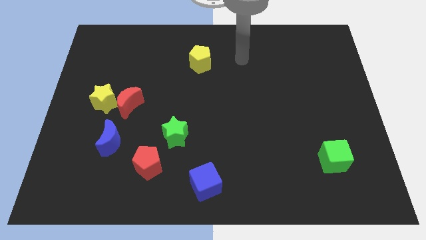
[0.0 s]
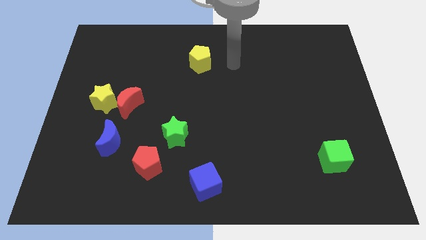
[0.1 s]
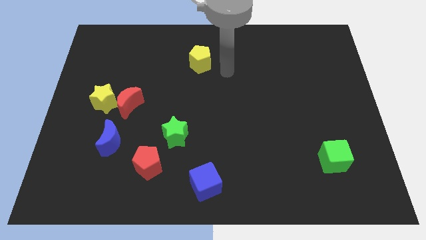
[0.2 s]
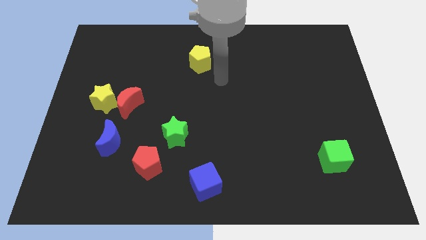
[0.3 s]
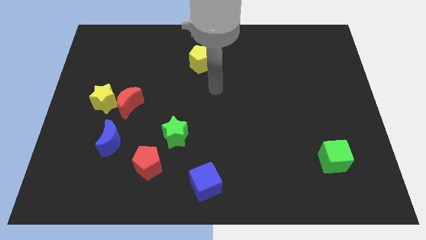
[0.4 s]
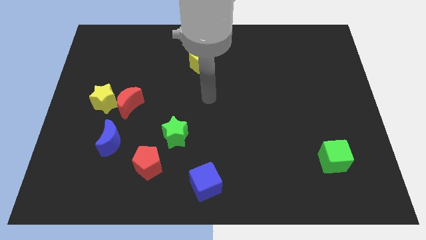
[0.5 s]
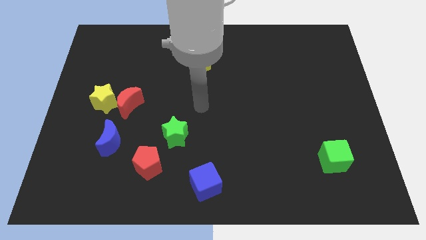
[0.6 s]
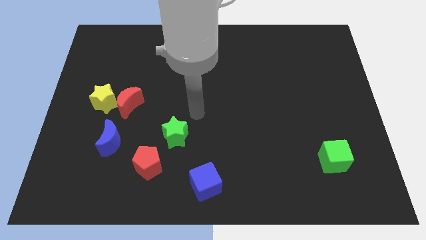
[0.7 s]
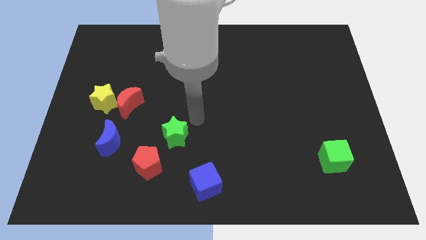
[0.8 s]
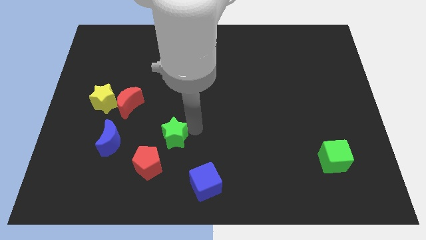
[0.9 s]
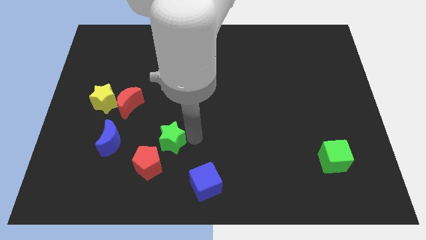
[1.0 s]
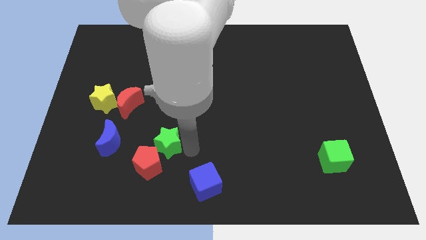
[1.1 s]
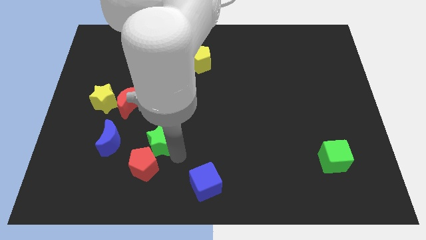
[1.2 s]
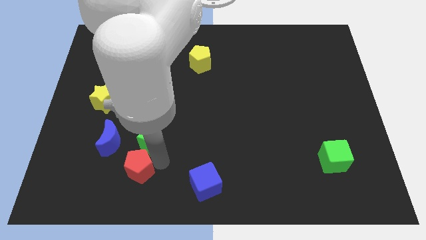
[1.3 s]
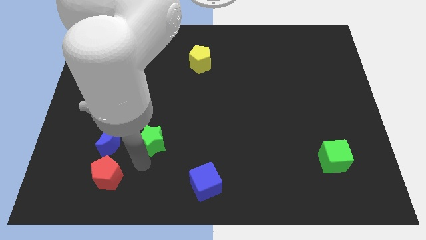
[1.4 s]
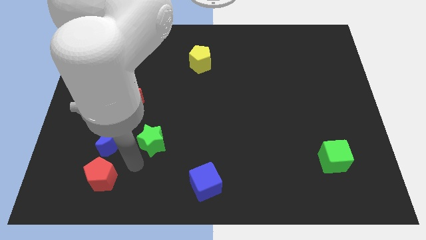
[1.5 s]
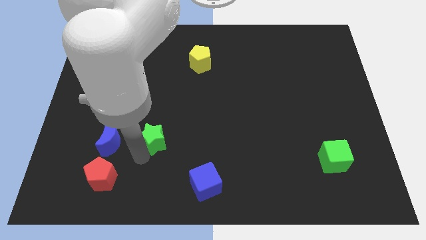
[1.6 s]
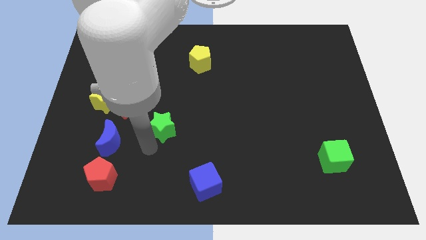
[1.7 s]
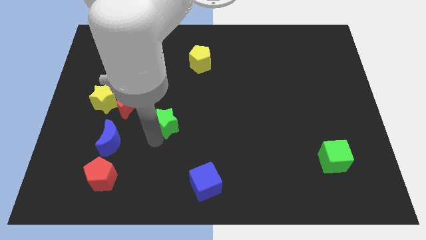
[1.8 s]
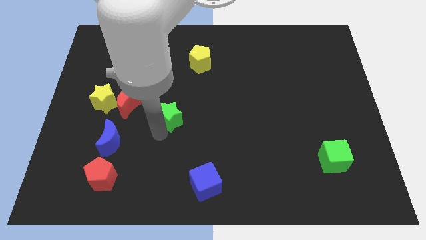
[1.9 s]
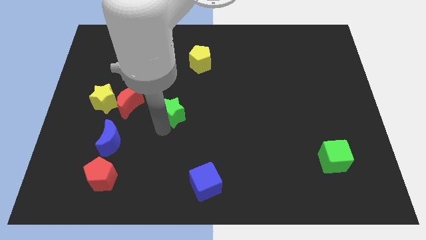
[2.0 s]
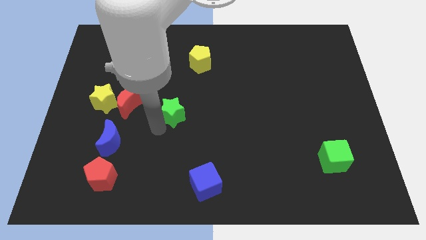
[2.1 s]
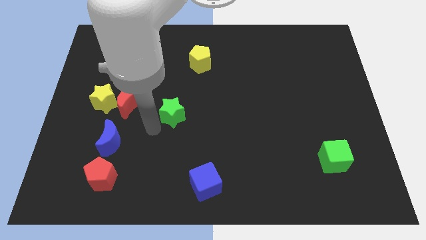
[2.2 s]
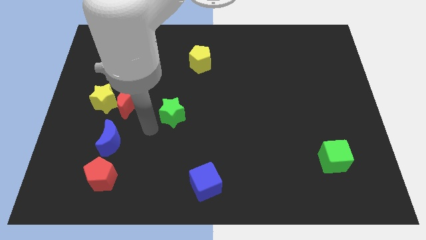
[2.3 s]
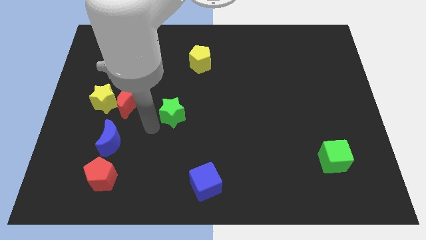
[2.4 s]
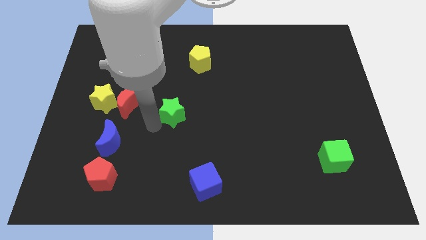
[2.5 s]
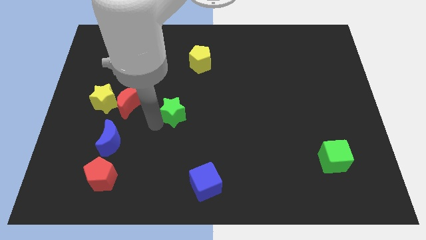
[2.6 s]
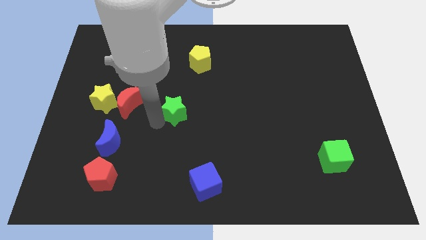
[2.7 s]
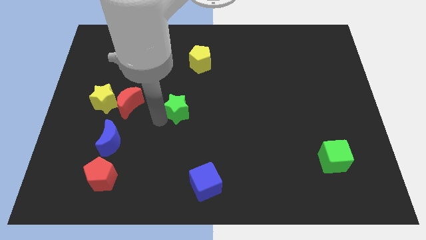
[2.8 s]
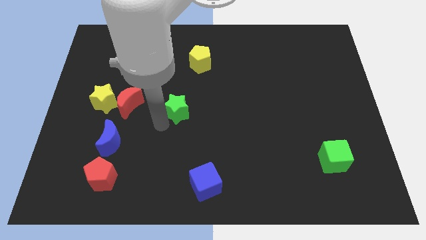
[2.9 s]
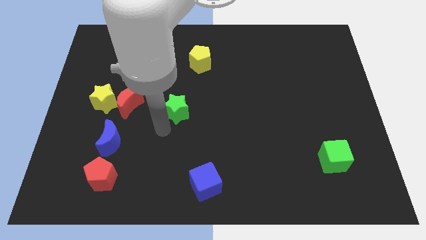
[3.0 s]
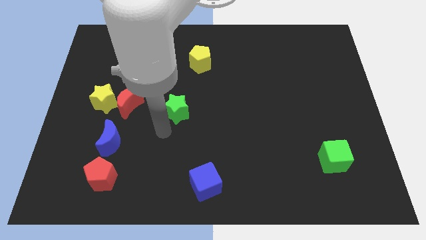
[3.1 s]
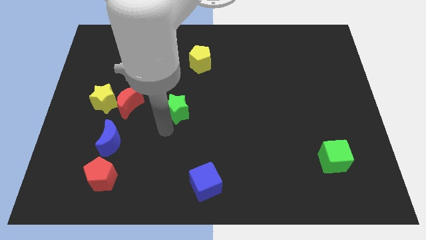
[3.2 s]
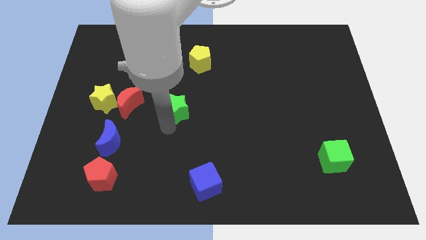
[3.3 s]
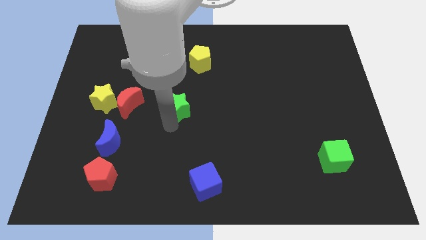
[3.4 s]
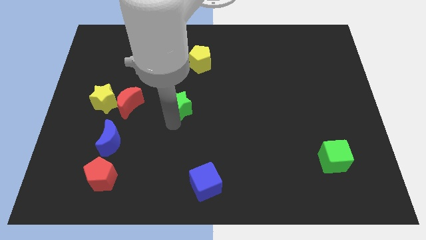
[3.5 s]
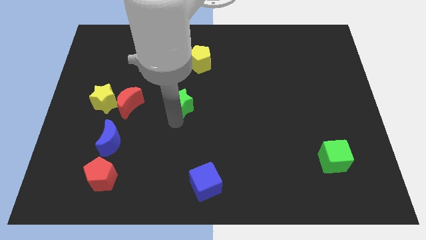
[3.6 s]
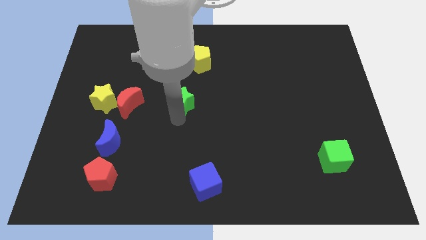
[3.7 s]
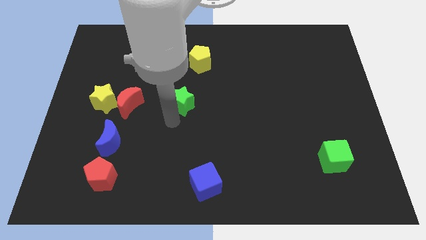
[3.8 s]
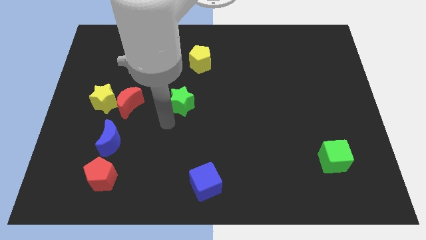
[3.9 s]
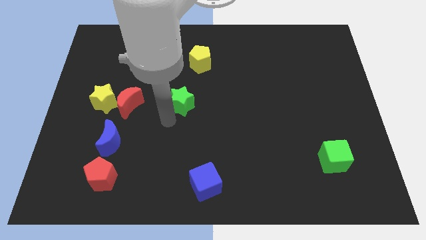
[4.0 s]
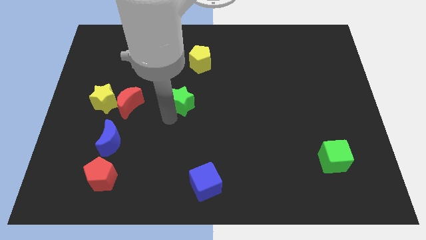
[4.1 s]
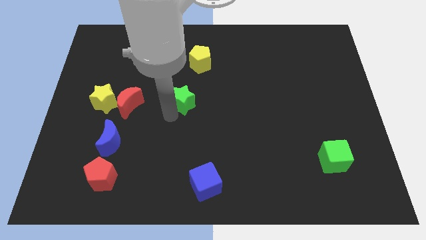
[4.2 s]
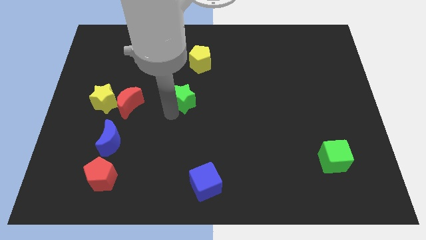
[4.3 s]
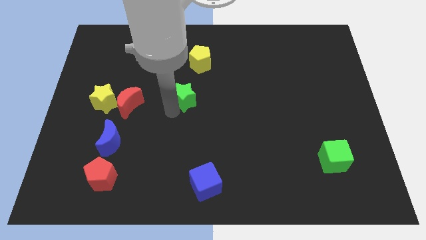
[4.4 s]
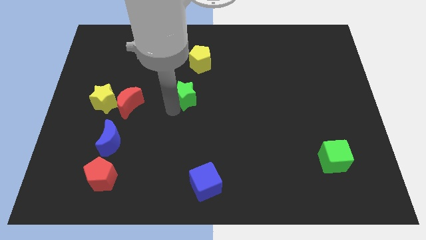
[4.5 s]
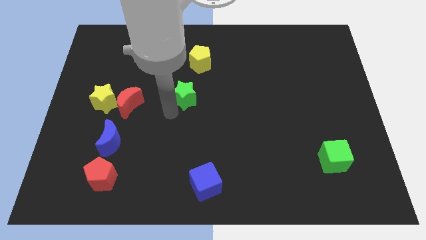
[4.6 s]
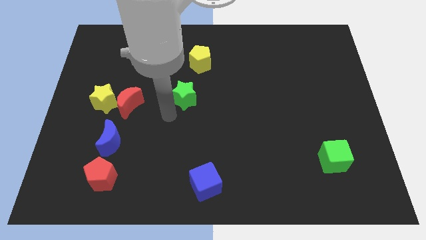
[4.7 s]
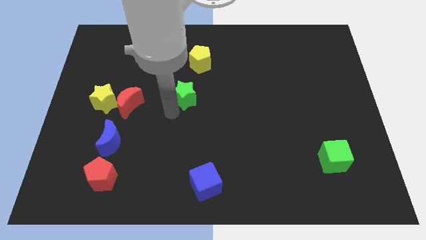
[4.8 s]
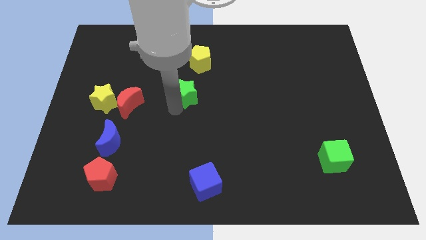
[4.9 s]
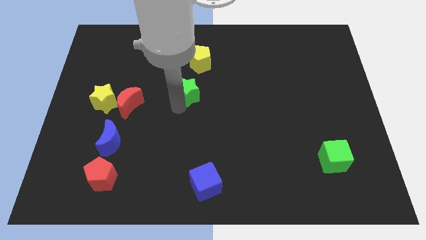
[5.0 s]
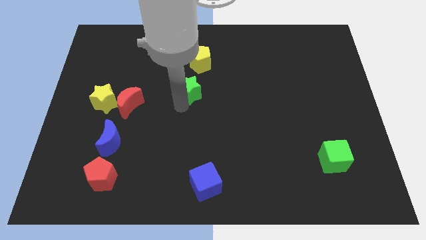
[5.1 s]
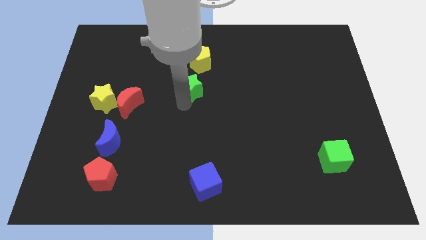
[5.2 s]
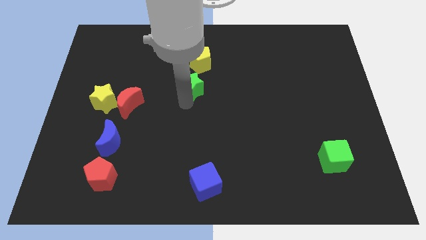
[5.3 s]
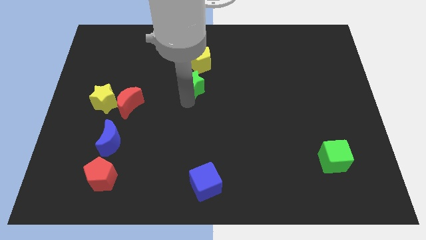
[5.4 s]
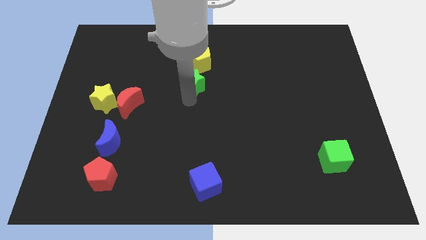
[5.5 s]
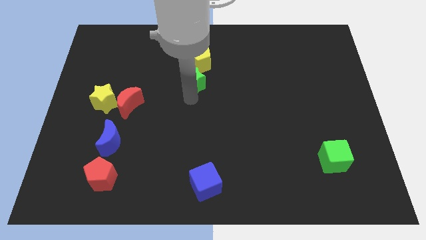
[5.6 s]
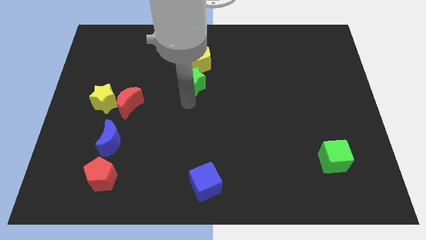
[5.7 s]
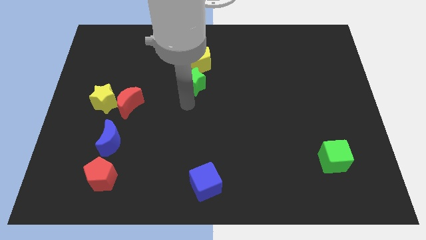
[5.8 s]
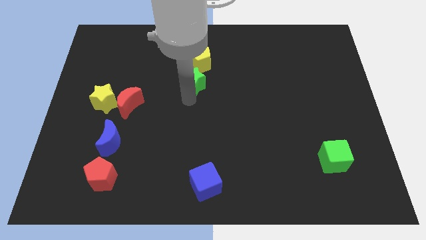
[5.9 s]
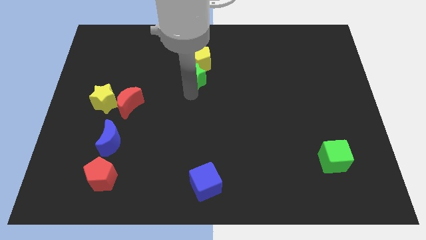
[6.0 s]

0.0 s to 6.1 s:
push the green star next to the yellow pentagon

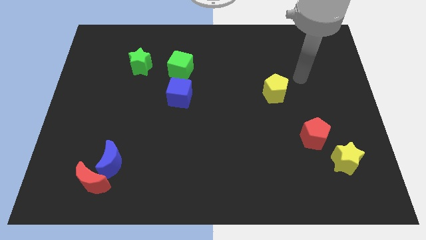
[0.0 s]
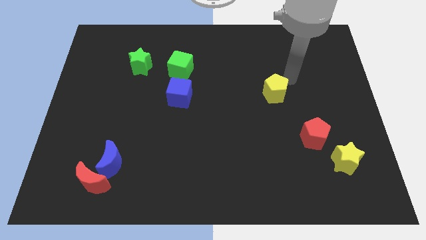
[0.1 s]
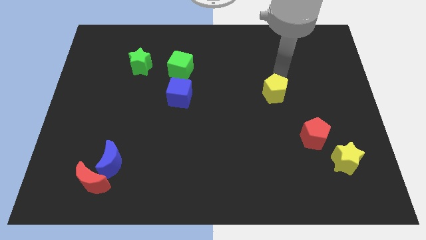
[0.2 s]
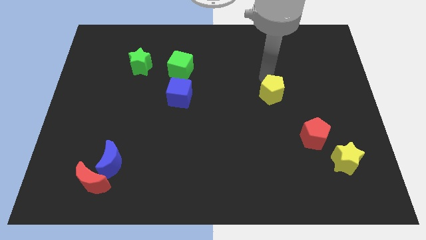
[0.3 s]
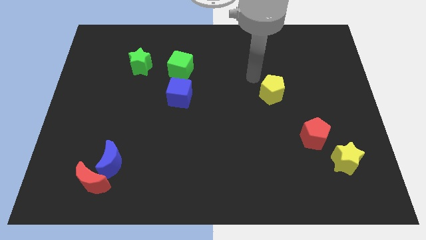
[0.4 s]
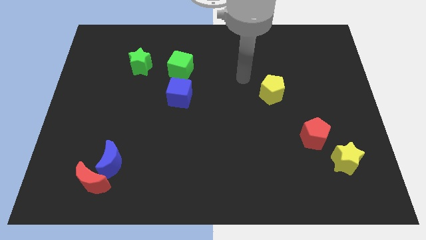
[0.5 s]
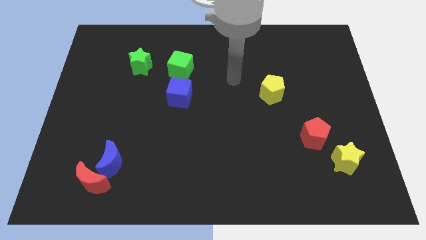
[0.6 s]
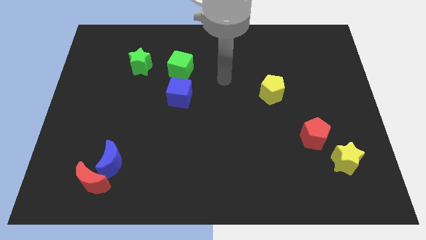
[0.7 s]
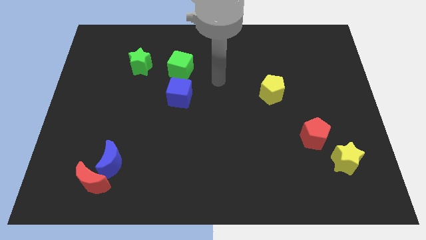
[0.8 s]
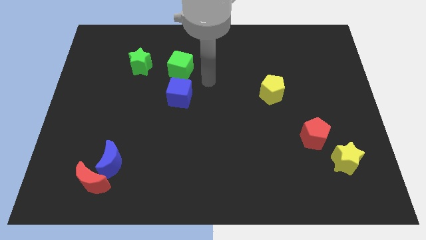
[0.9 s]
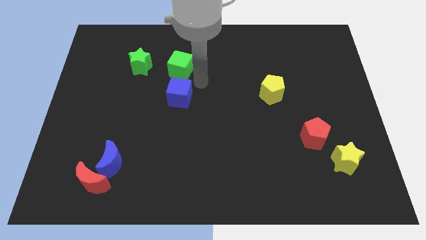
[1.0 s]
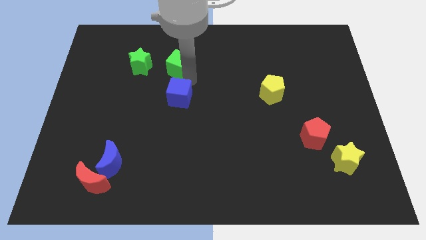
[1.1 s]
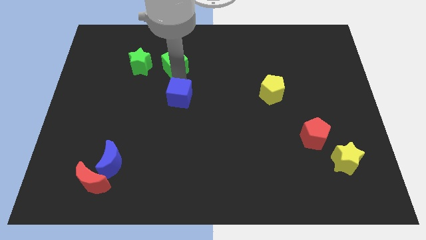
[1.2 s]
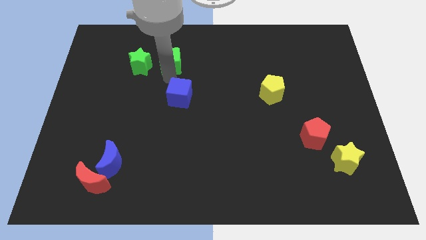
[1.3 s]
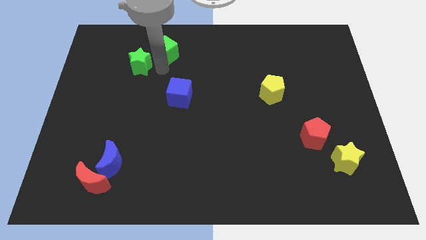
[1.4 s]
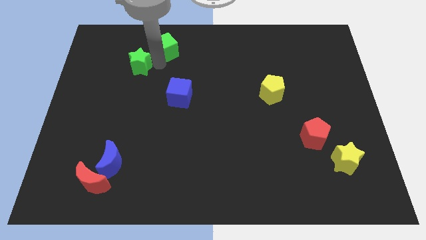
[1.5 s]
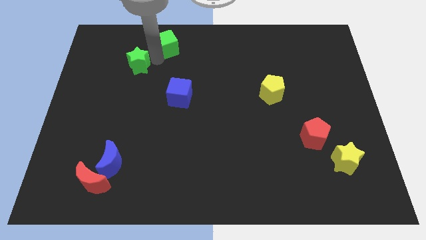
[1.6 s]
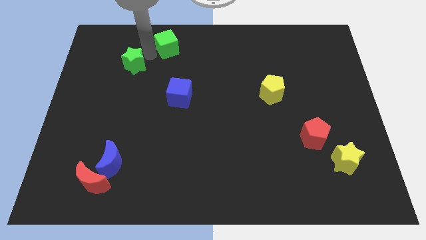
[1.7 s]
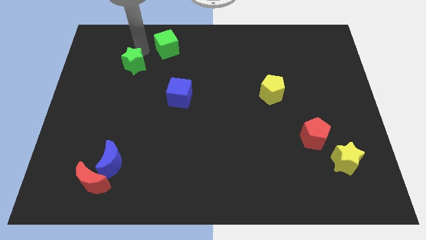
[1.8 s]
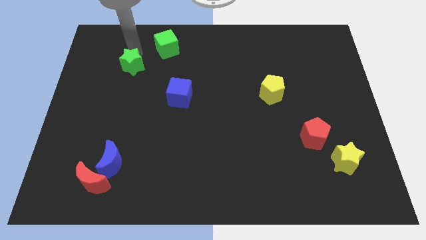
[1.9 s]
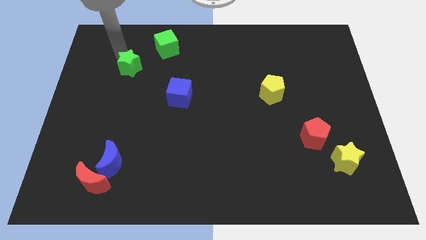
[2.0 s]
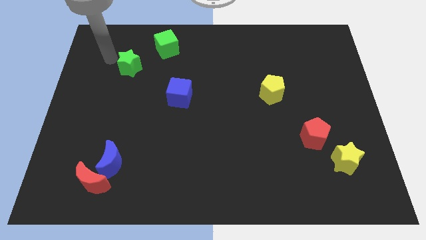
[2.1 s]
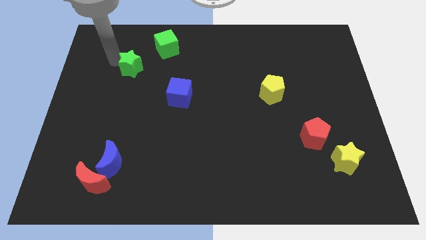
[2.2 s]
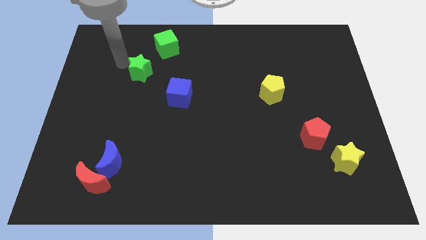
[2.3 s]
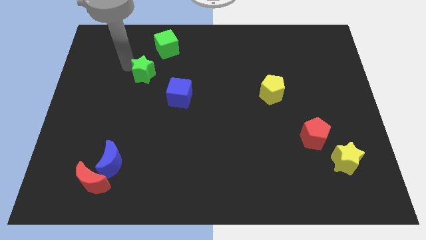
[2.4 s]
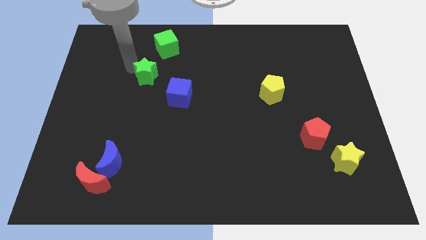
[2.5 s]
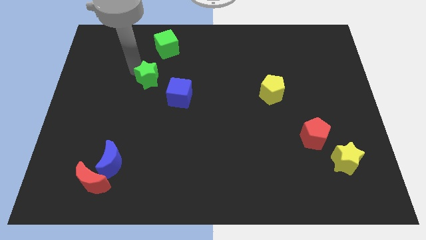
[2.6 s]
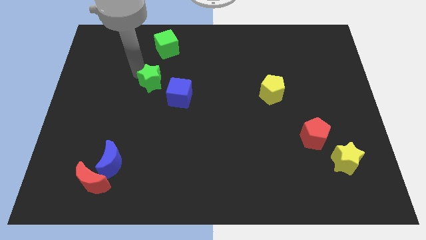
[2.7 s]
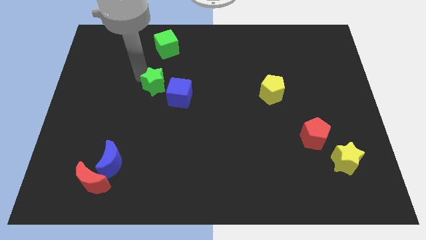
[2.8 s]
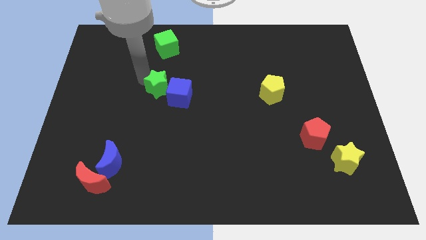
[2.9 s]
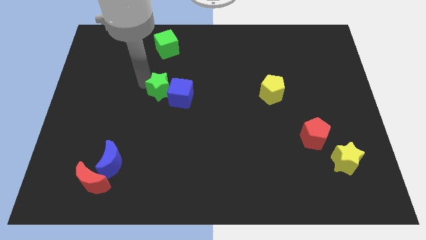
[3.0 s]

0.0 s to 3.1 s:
put the green star next to the blue cube
